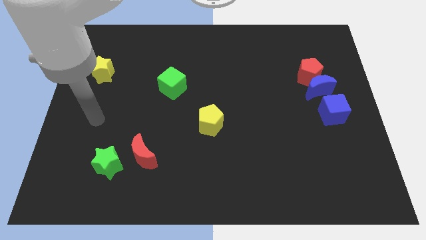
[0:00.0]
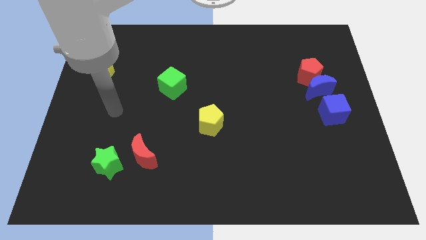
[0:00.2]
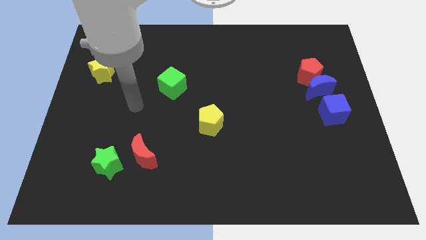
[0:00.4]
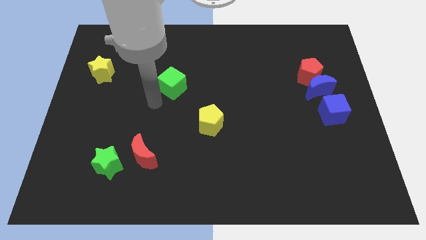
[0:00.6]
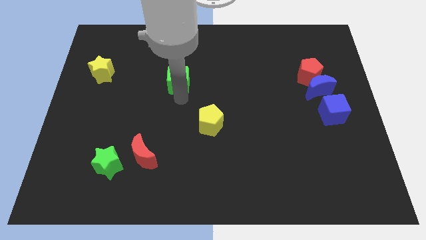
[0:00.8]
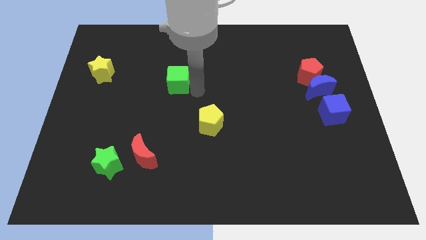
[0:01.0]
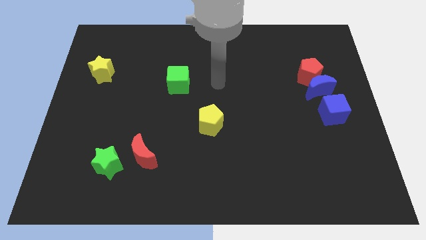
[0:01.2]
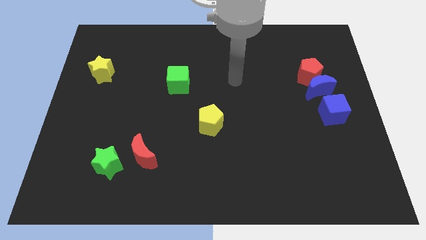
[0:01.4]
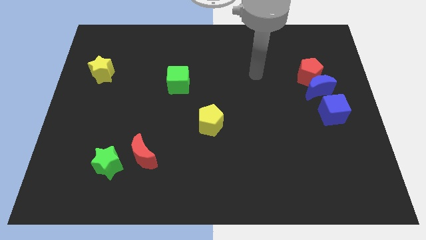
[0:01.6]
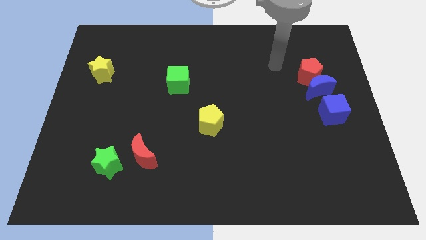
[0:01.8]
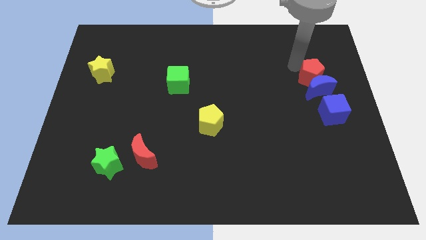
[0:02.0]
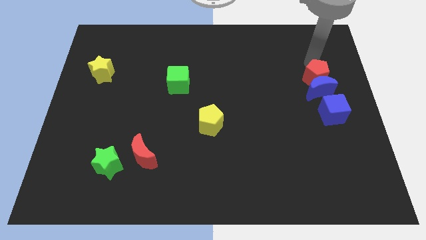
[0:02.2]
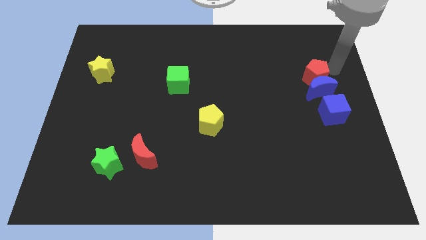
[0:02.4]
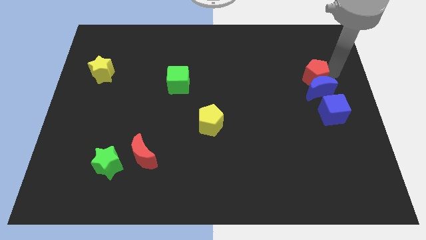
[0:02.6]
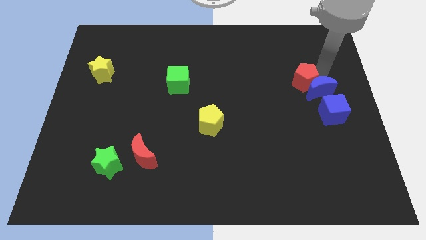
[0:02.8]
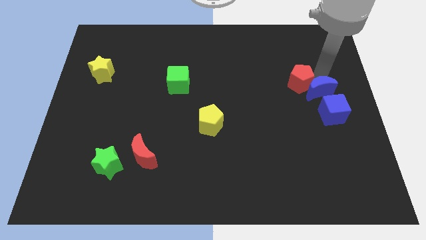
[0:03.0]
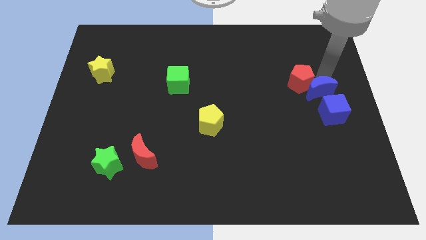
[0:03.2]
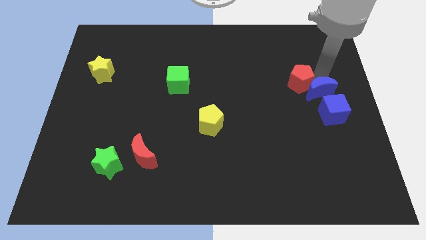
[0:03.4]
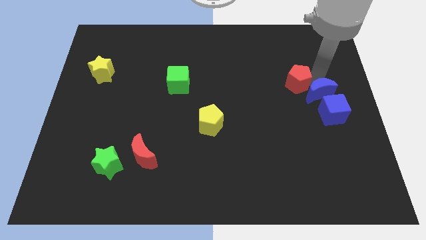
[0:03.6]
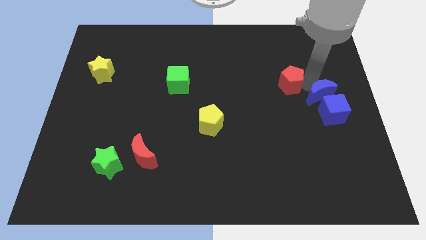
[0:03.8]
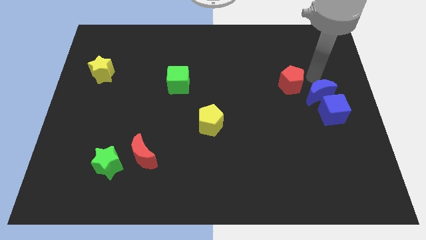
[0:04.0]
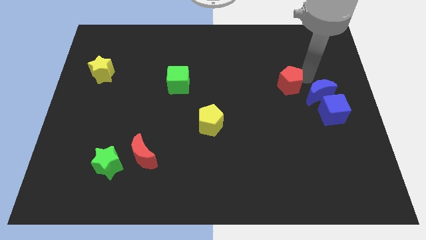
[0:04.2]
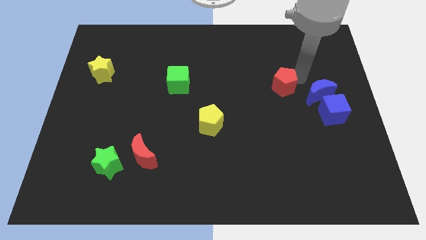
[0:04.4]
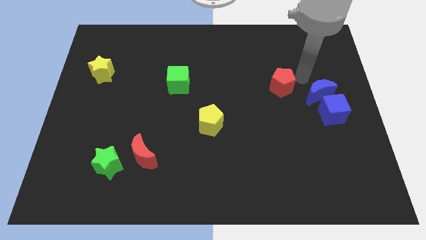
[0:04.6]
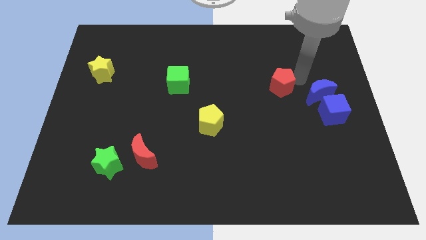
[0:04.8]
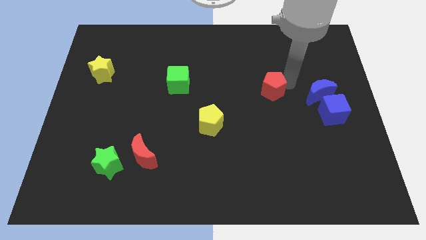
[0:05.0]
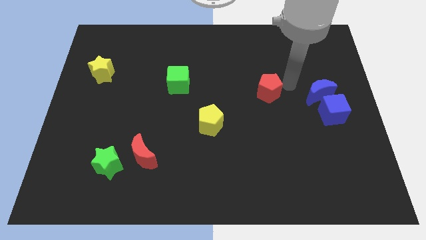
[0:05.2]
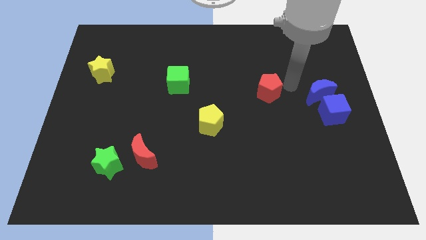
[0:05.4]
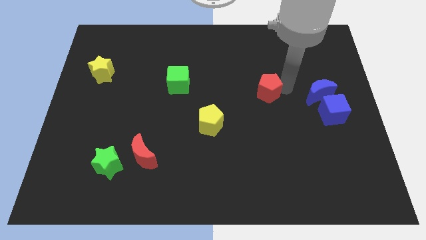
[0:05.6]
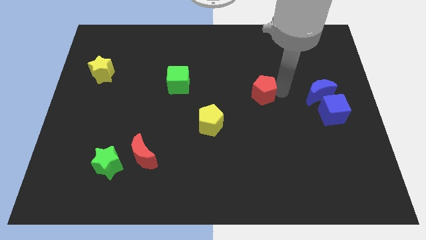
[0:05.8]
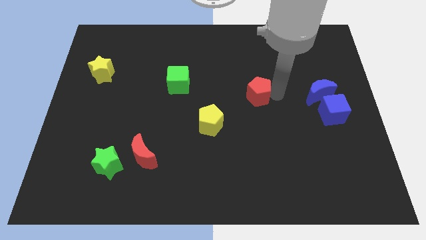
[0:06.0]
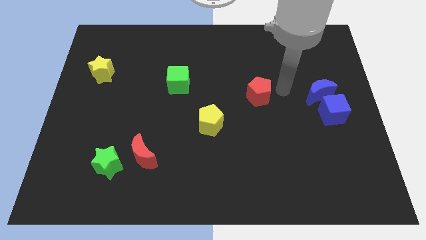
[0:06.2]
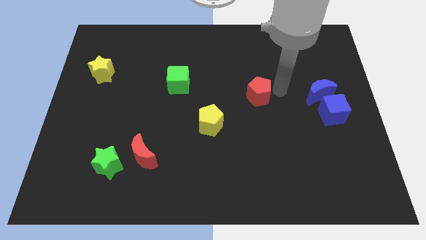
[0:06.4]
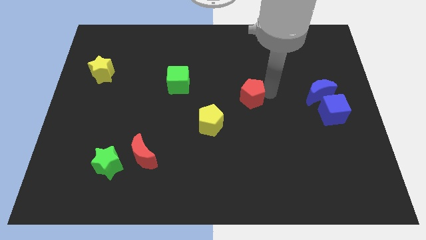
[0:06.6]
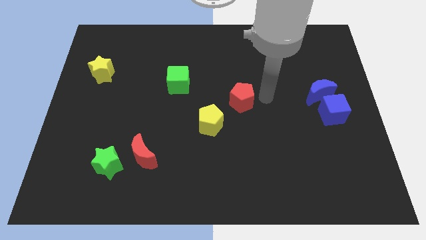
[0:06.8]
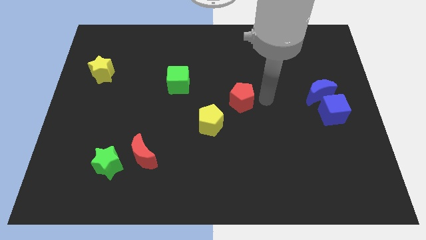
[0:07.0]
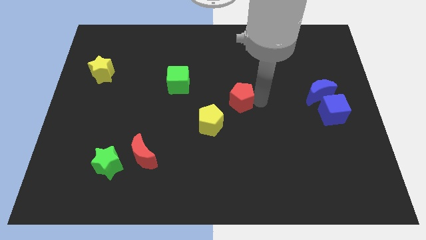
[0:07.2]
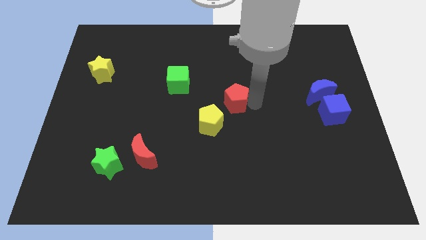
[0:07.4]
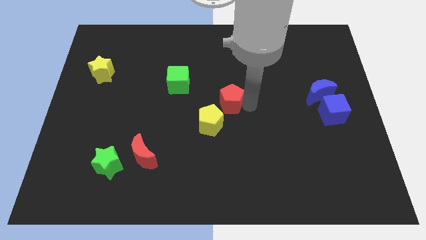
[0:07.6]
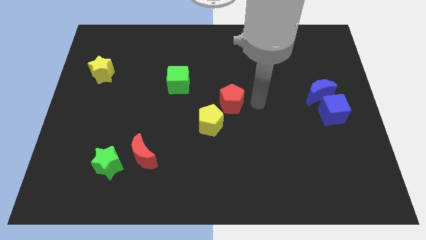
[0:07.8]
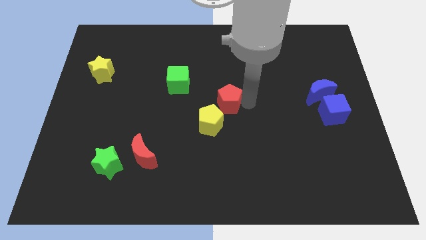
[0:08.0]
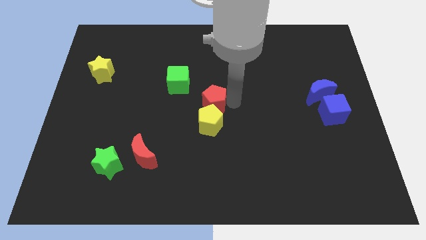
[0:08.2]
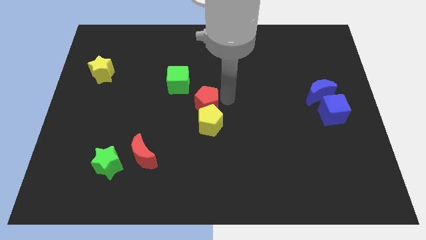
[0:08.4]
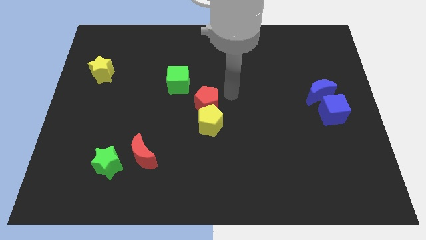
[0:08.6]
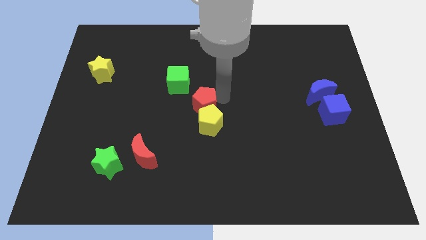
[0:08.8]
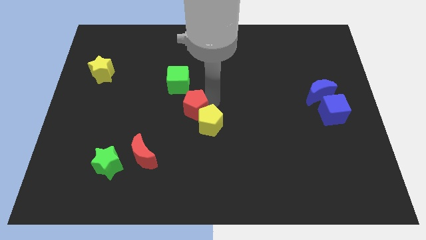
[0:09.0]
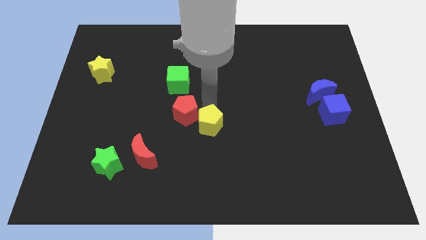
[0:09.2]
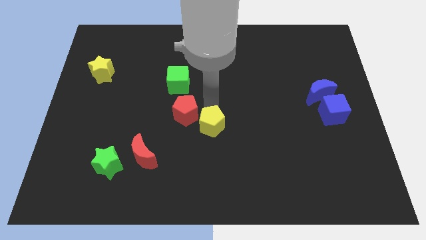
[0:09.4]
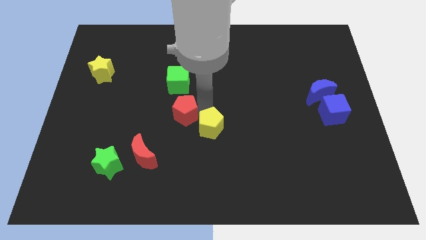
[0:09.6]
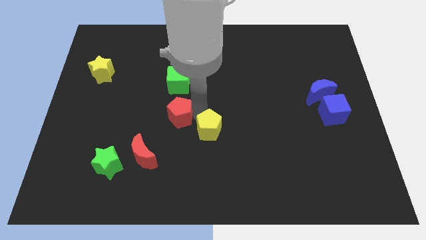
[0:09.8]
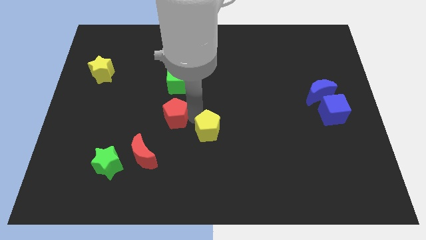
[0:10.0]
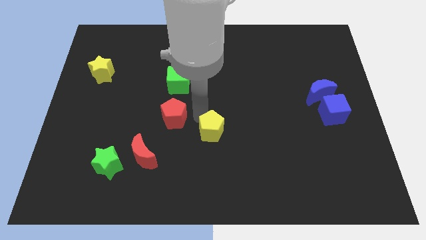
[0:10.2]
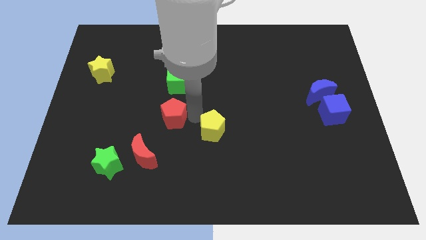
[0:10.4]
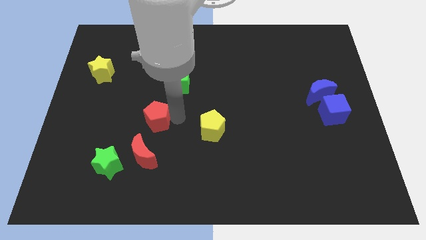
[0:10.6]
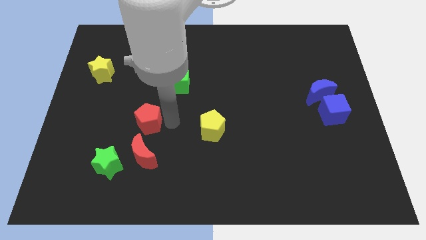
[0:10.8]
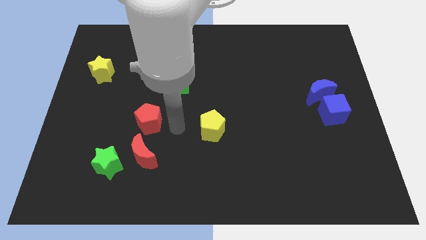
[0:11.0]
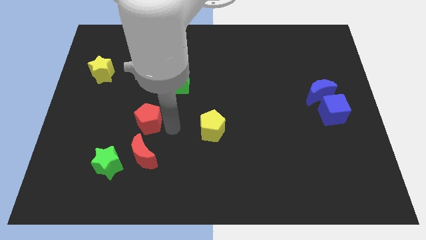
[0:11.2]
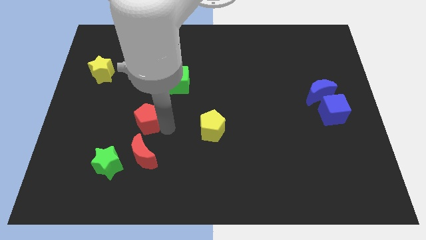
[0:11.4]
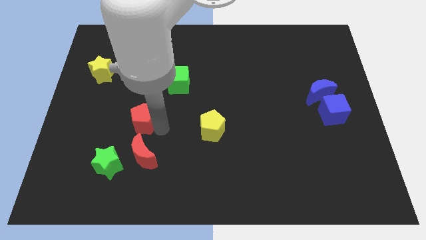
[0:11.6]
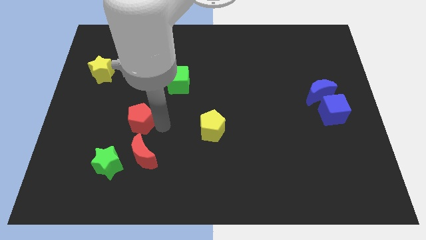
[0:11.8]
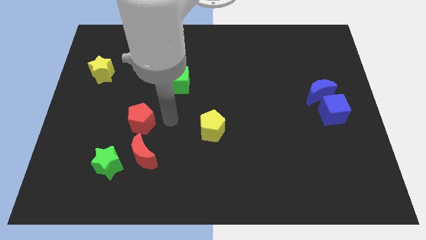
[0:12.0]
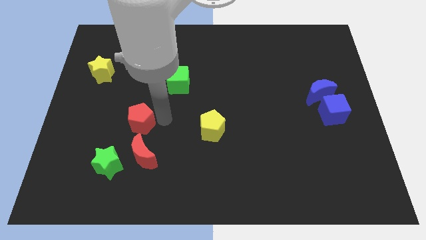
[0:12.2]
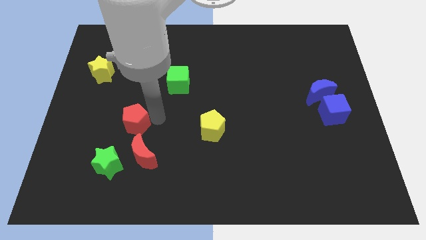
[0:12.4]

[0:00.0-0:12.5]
move the red pentagon above the green star

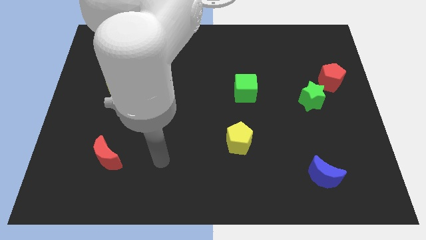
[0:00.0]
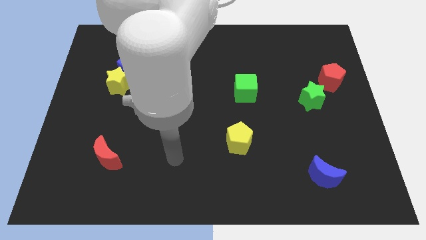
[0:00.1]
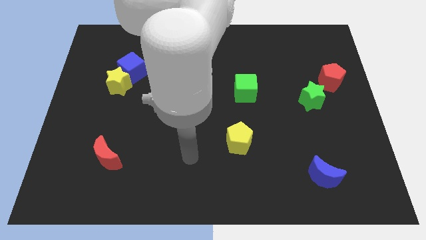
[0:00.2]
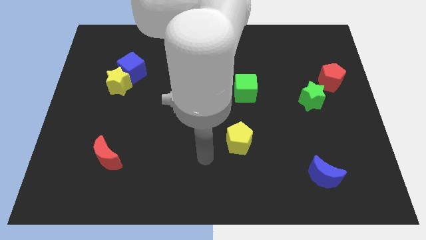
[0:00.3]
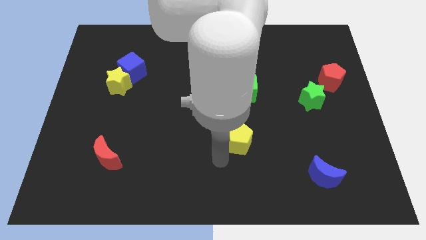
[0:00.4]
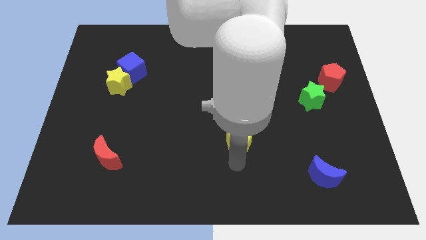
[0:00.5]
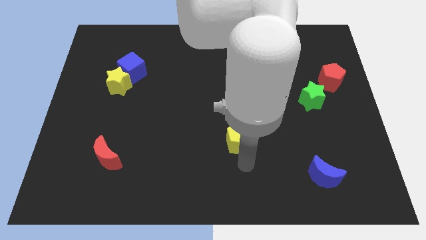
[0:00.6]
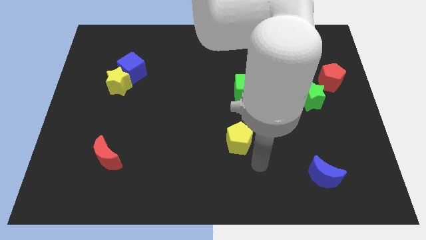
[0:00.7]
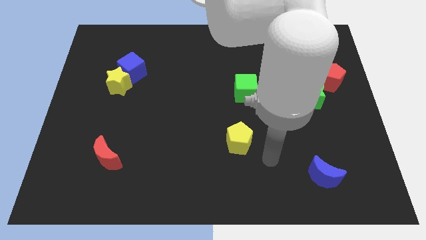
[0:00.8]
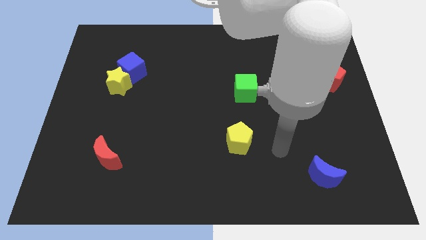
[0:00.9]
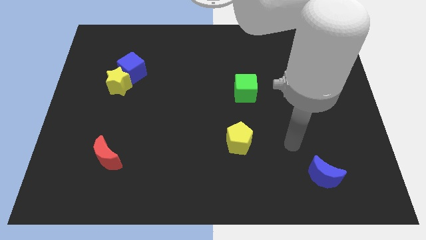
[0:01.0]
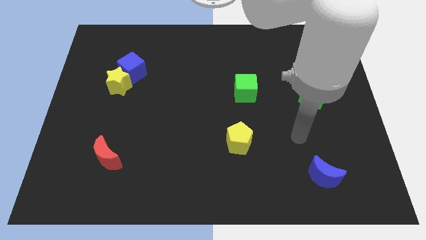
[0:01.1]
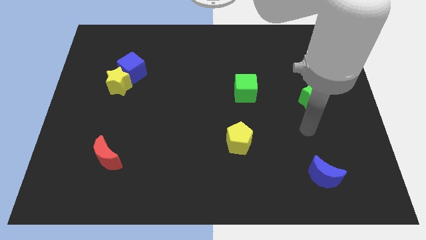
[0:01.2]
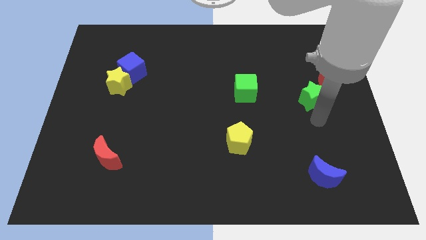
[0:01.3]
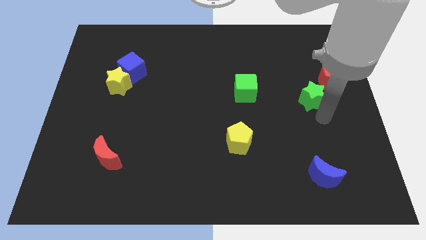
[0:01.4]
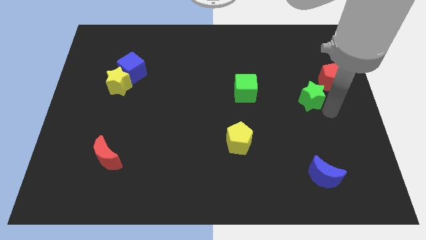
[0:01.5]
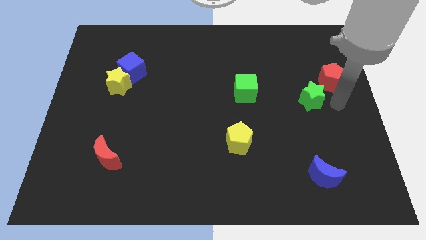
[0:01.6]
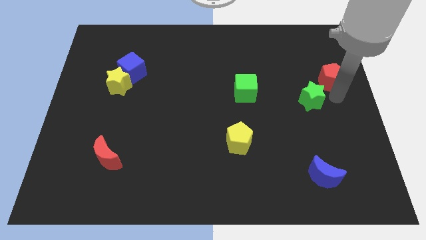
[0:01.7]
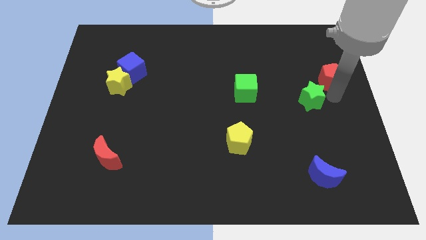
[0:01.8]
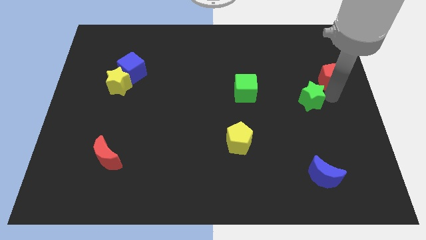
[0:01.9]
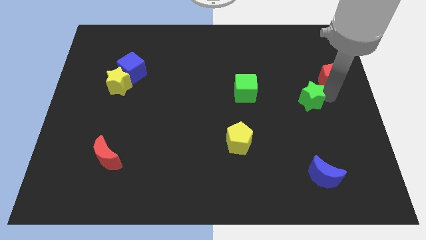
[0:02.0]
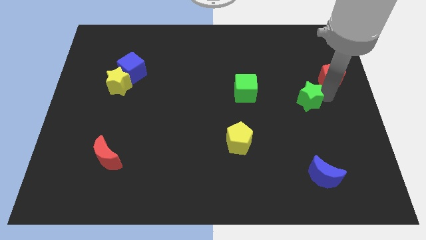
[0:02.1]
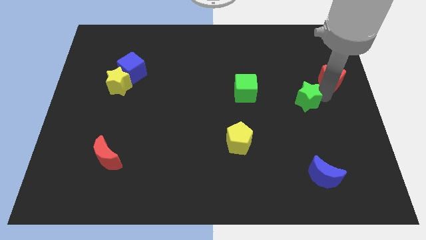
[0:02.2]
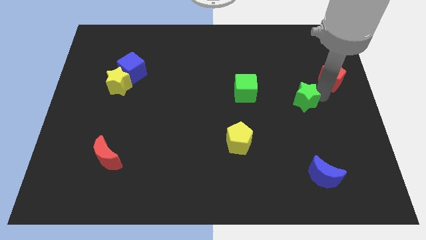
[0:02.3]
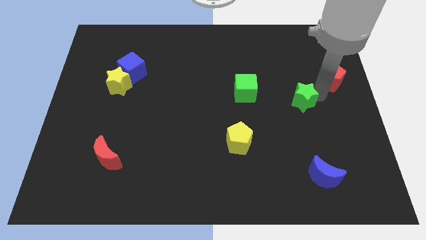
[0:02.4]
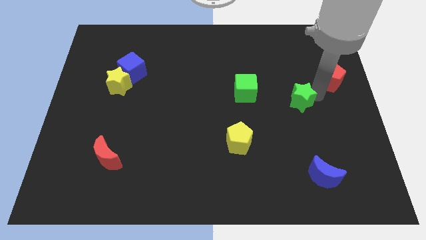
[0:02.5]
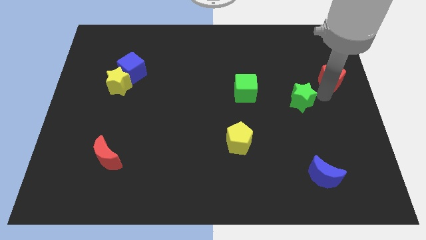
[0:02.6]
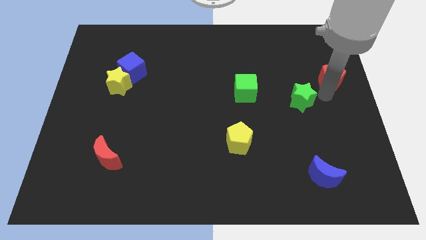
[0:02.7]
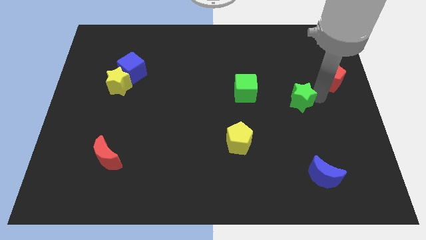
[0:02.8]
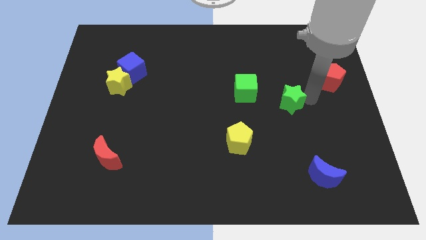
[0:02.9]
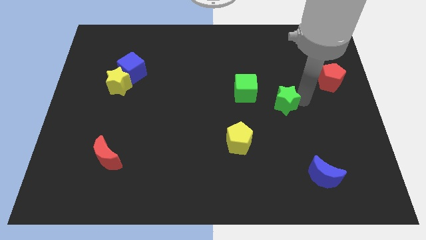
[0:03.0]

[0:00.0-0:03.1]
move the green star to the bottom right of the green cube
